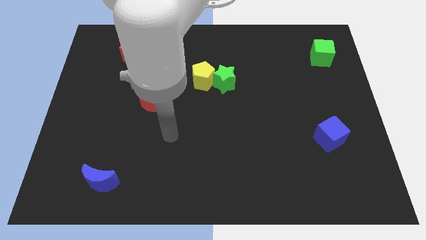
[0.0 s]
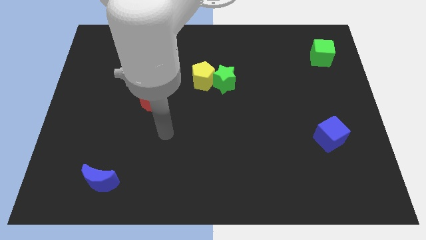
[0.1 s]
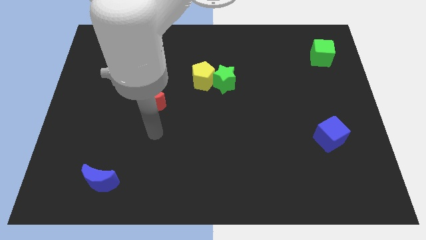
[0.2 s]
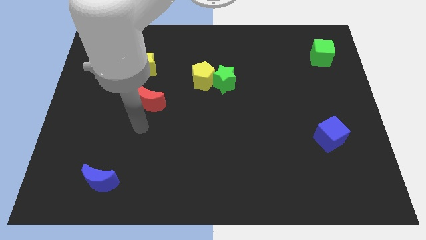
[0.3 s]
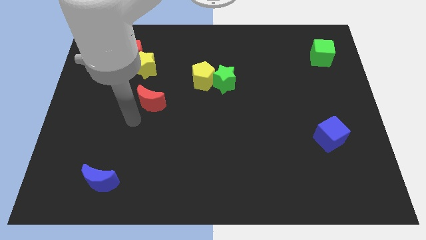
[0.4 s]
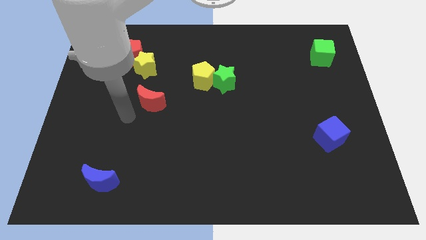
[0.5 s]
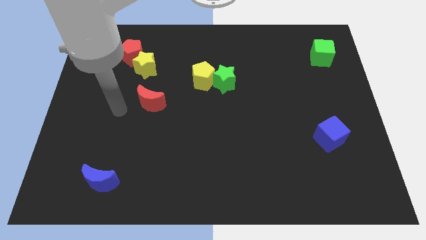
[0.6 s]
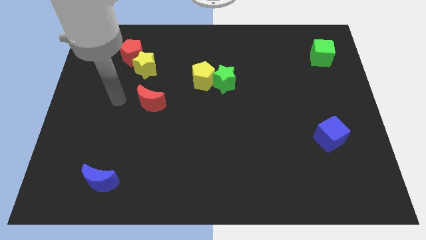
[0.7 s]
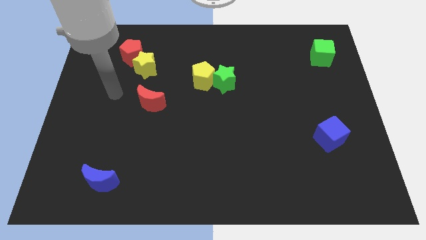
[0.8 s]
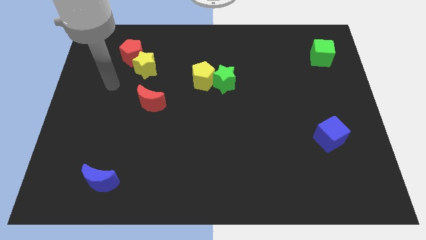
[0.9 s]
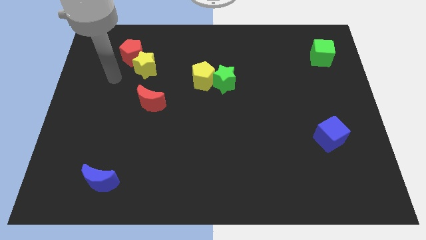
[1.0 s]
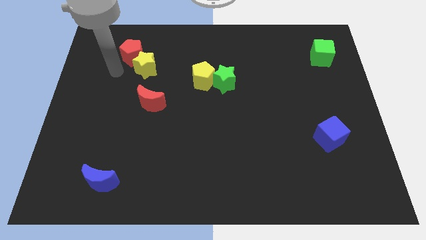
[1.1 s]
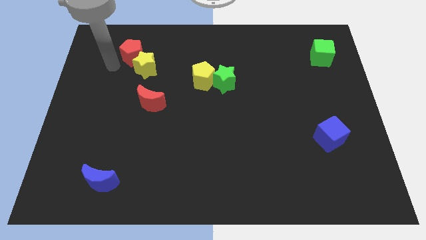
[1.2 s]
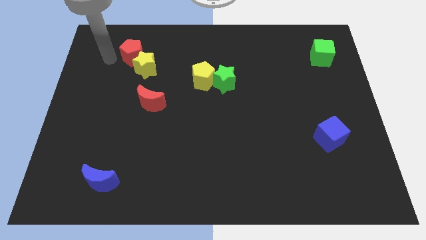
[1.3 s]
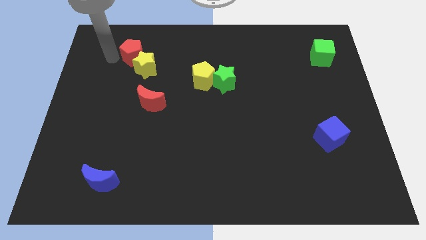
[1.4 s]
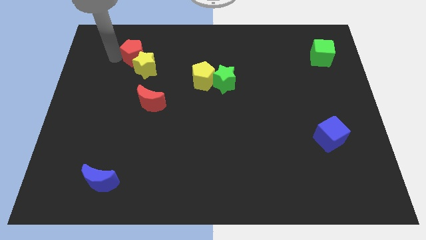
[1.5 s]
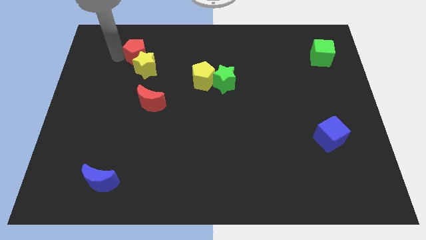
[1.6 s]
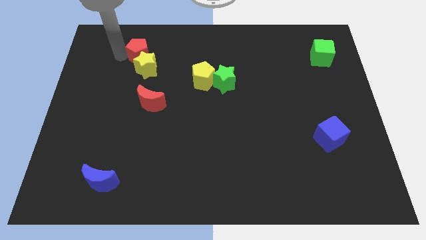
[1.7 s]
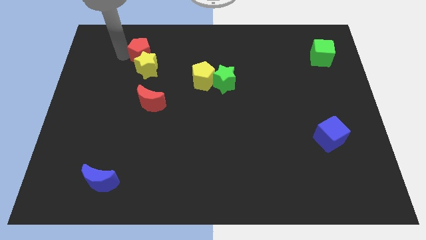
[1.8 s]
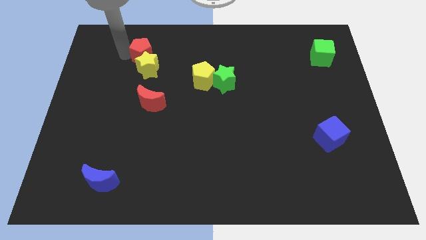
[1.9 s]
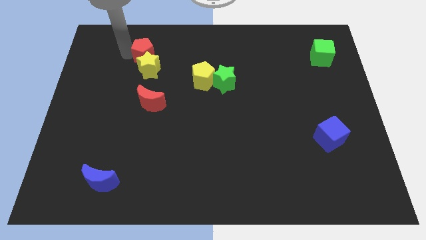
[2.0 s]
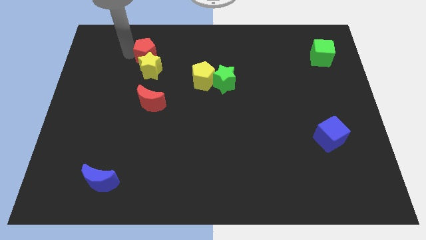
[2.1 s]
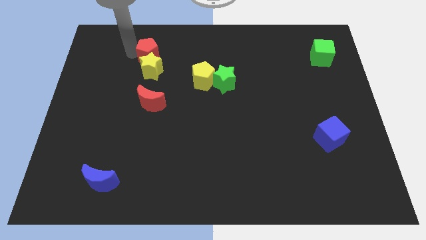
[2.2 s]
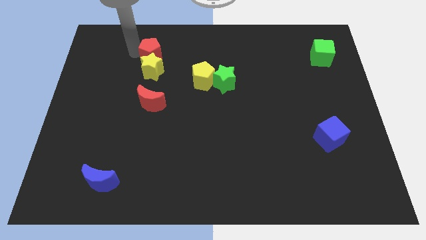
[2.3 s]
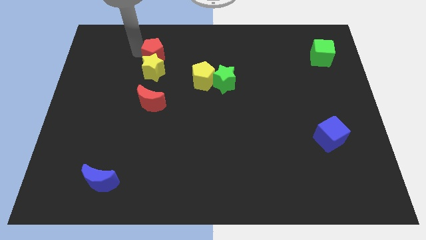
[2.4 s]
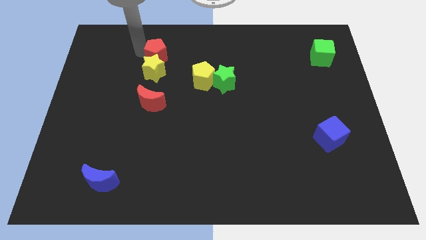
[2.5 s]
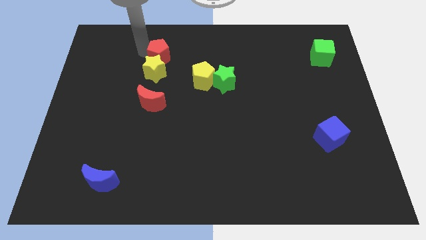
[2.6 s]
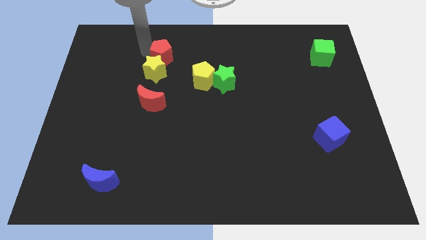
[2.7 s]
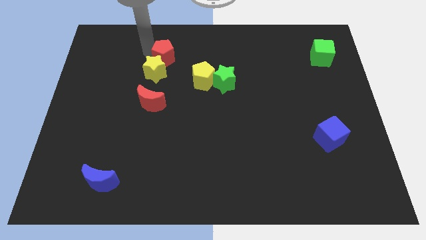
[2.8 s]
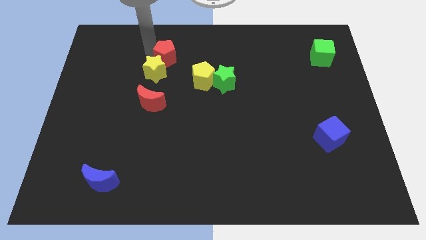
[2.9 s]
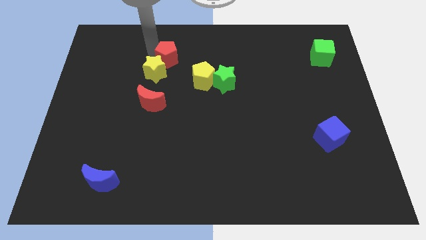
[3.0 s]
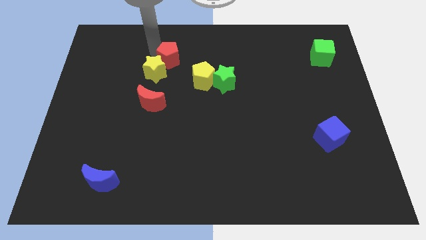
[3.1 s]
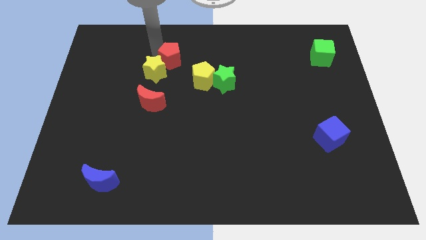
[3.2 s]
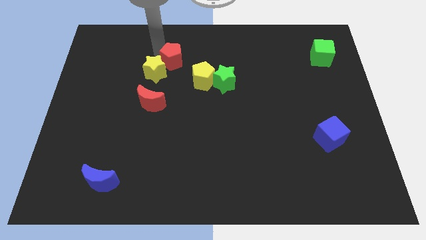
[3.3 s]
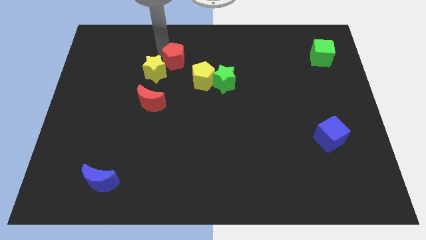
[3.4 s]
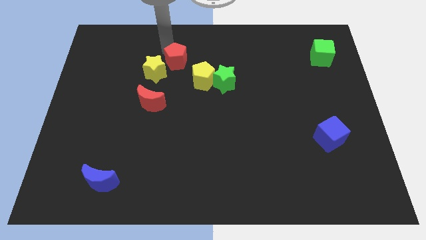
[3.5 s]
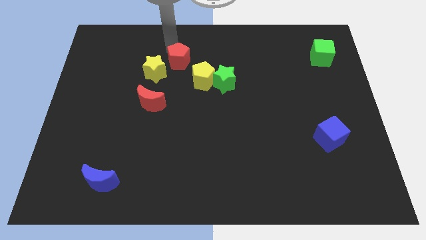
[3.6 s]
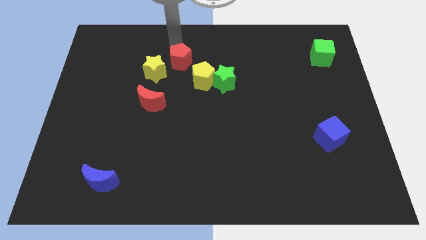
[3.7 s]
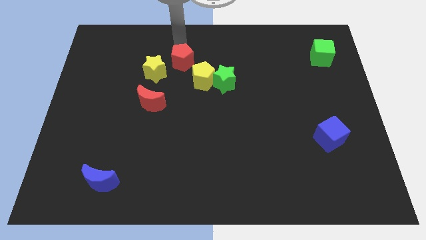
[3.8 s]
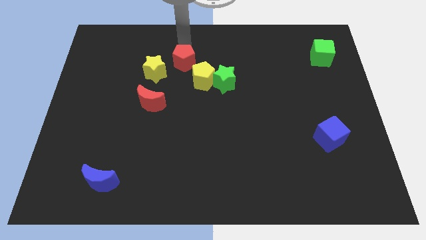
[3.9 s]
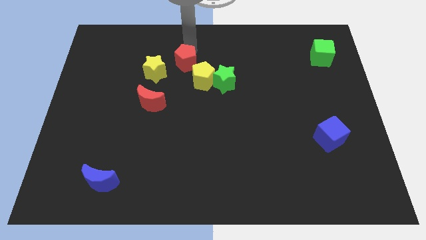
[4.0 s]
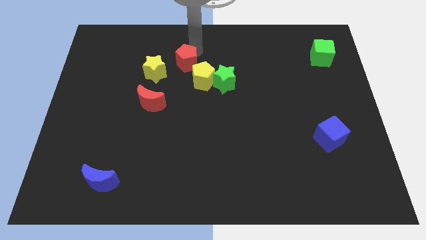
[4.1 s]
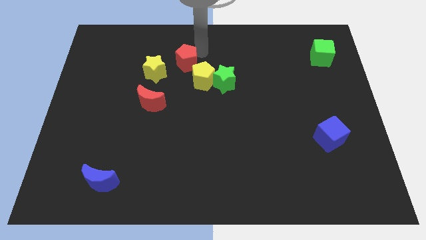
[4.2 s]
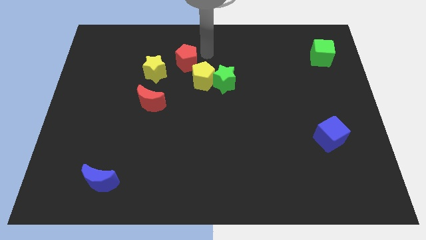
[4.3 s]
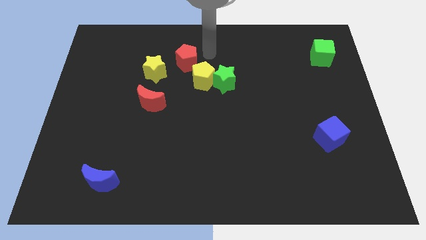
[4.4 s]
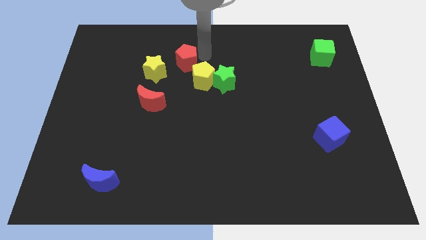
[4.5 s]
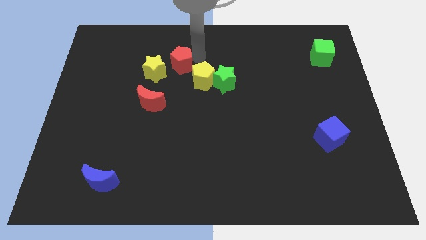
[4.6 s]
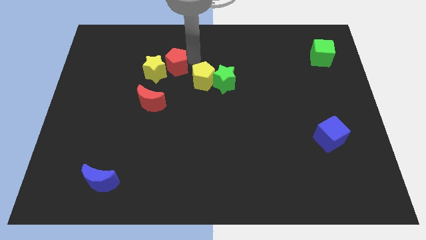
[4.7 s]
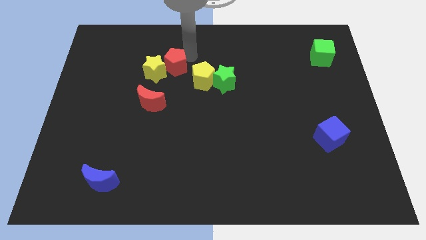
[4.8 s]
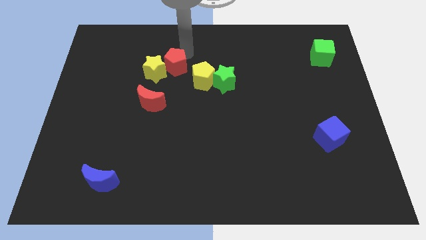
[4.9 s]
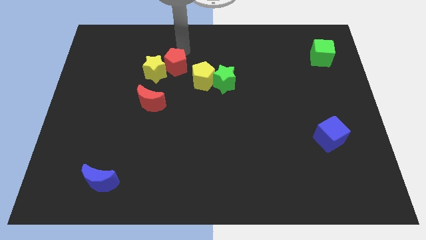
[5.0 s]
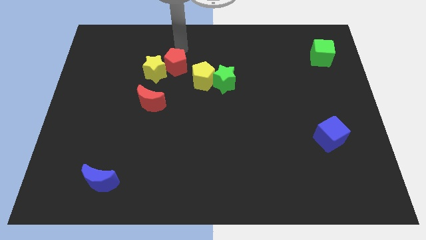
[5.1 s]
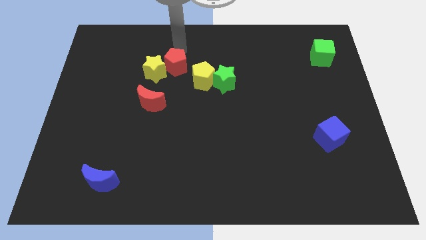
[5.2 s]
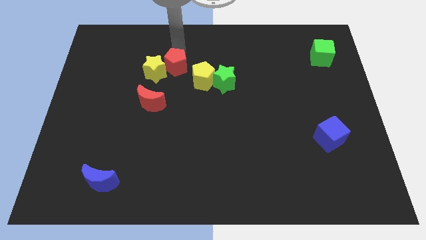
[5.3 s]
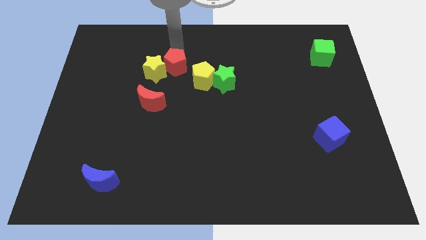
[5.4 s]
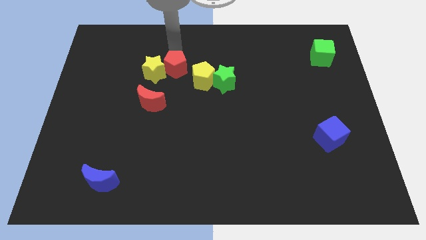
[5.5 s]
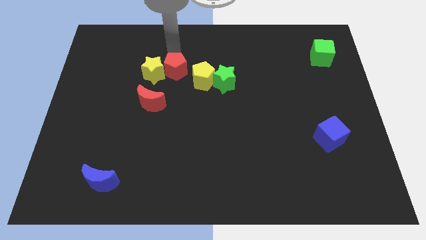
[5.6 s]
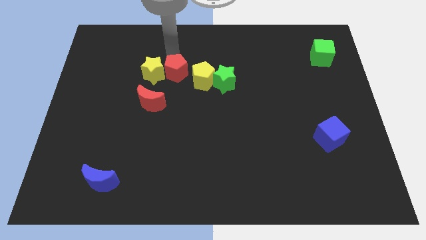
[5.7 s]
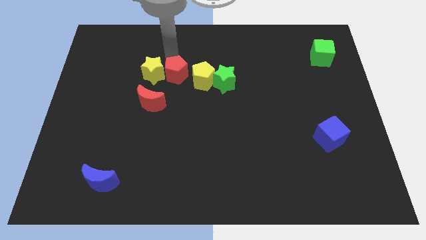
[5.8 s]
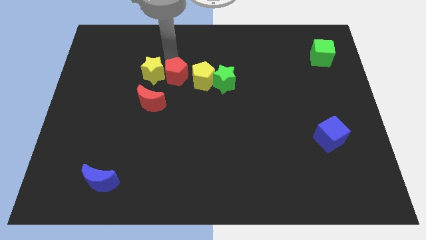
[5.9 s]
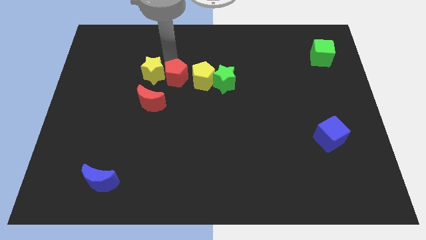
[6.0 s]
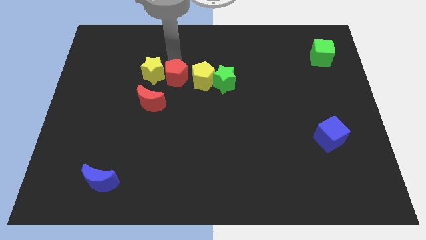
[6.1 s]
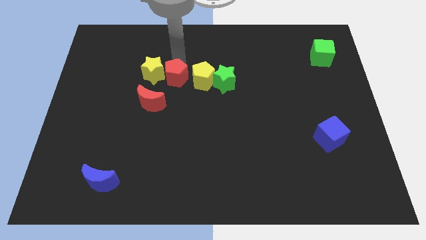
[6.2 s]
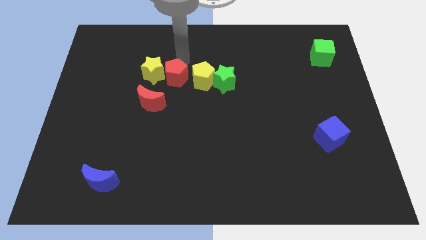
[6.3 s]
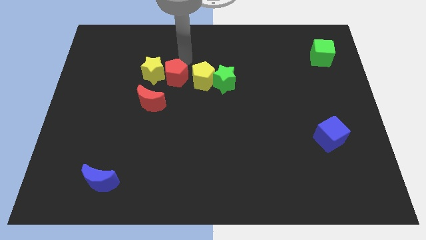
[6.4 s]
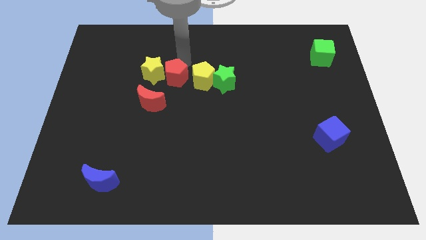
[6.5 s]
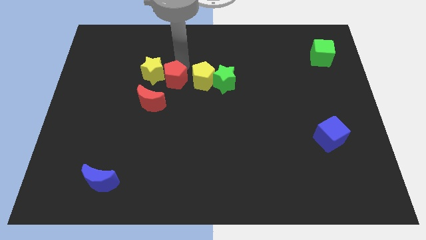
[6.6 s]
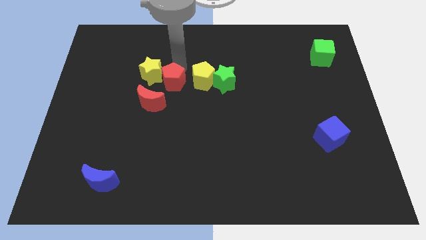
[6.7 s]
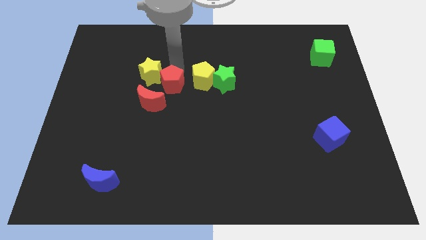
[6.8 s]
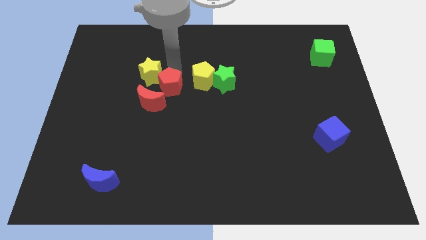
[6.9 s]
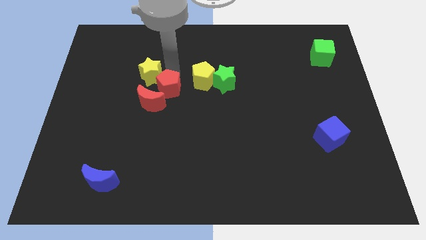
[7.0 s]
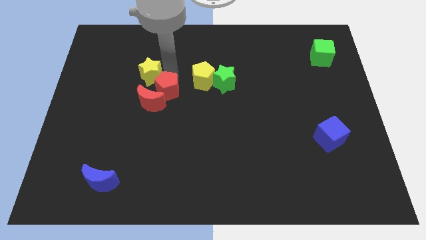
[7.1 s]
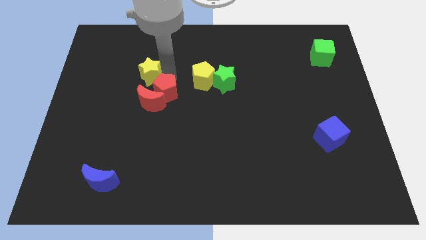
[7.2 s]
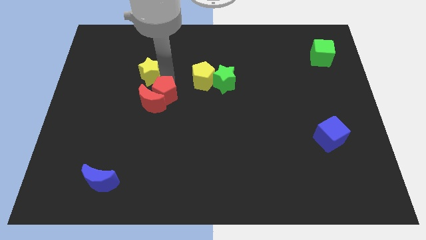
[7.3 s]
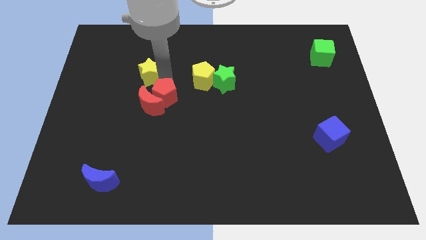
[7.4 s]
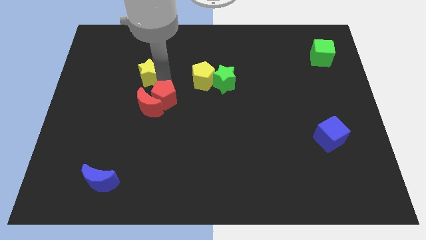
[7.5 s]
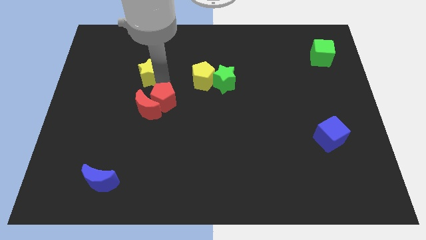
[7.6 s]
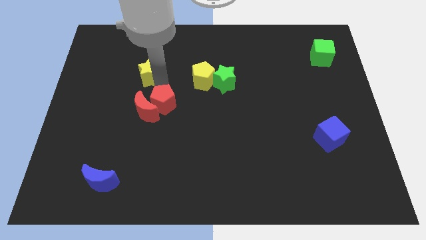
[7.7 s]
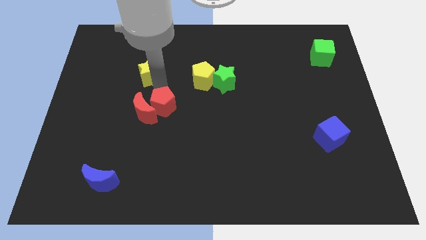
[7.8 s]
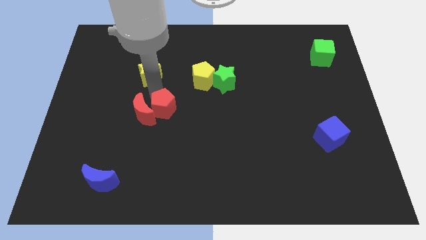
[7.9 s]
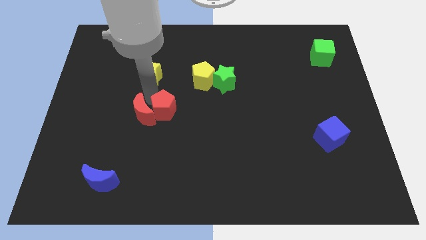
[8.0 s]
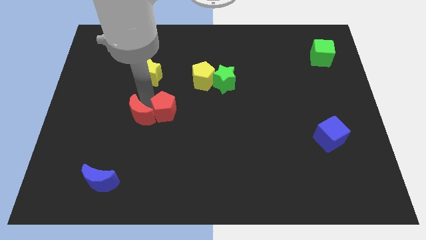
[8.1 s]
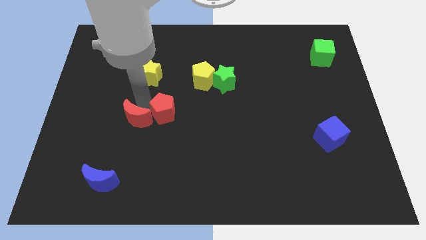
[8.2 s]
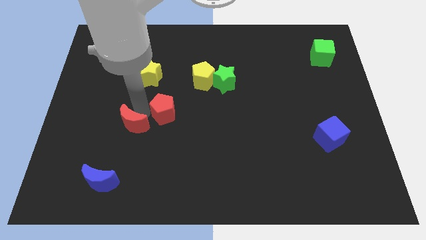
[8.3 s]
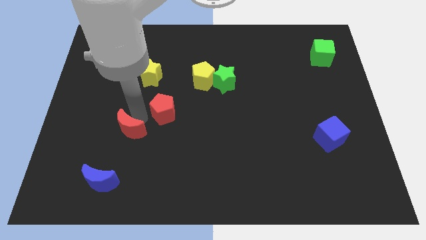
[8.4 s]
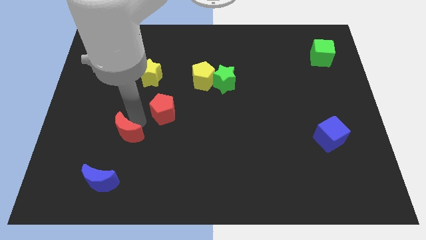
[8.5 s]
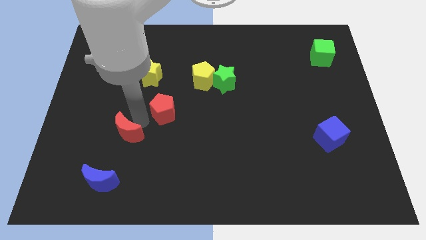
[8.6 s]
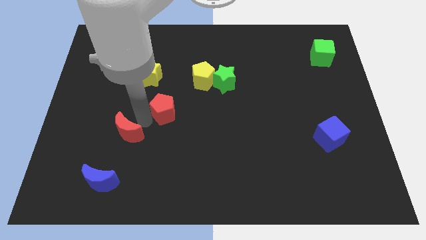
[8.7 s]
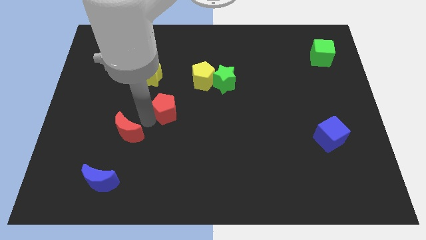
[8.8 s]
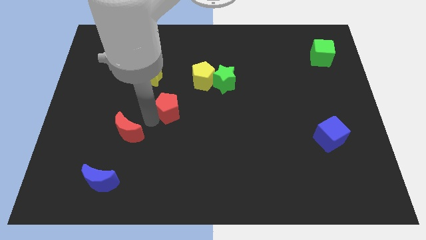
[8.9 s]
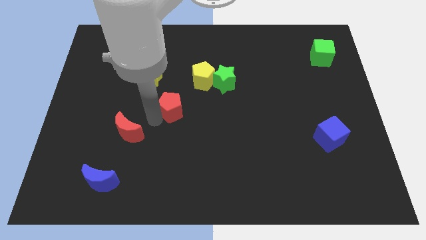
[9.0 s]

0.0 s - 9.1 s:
push the red pentagon downwards and then to the right
